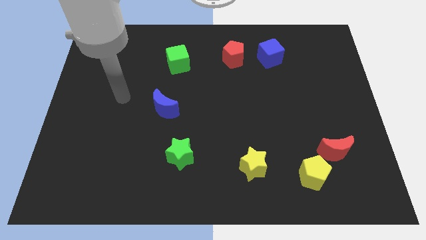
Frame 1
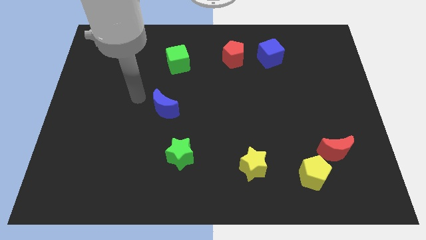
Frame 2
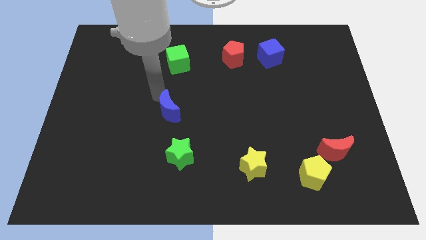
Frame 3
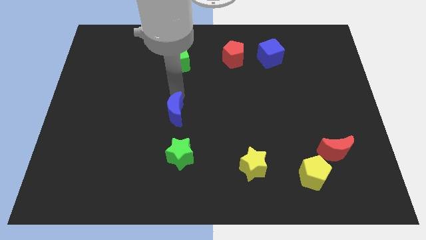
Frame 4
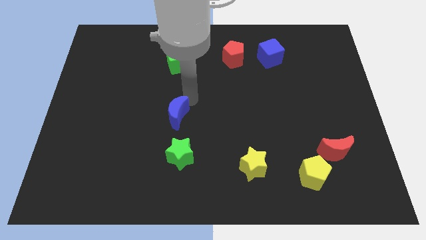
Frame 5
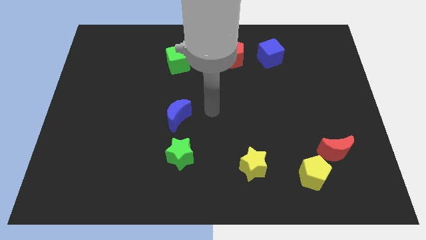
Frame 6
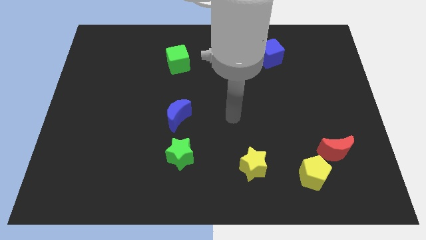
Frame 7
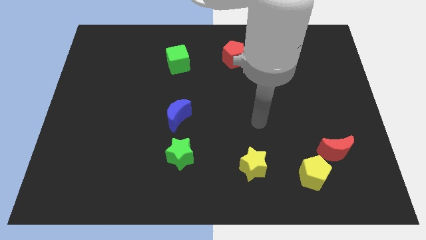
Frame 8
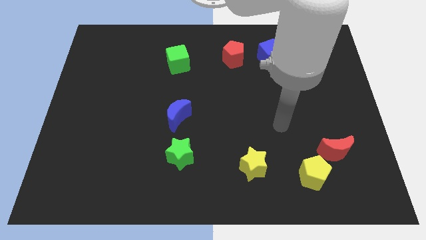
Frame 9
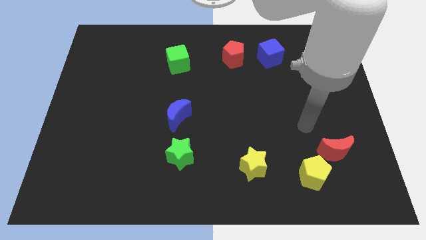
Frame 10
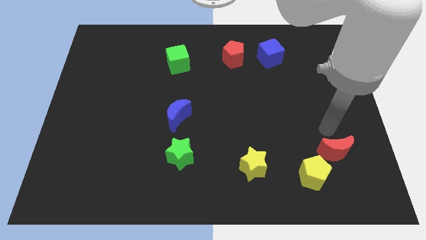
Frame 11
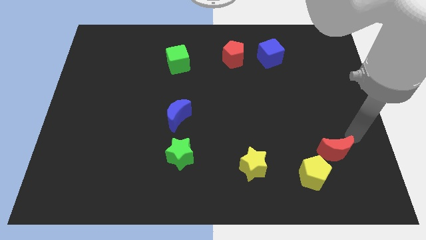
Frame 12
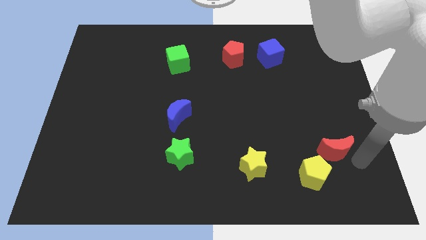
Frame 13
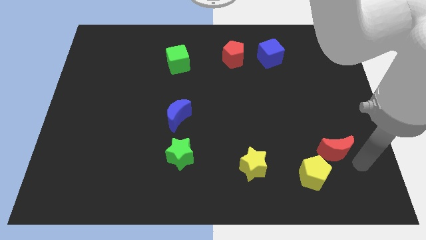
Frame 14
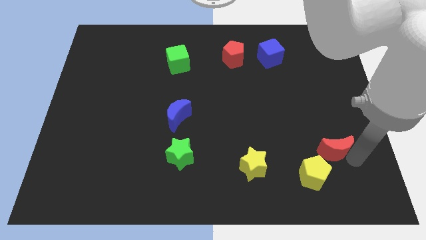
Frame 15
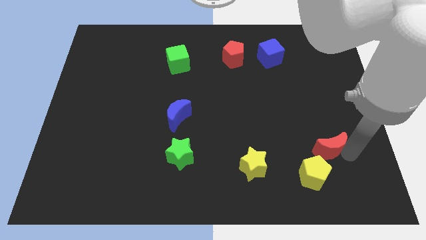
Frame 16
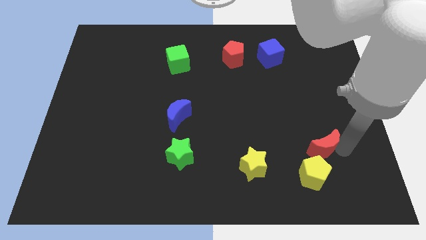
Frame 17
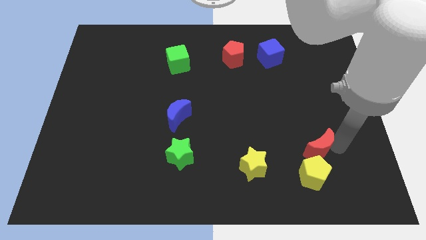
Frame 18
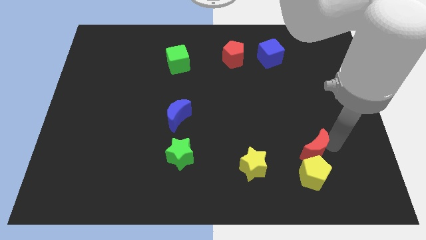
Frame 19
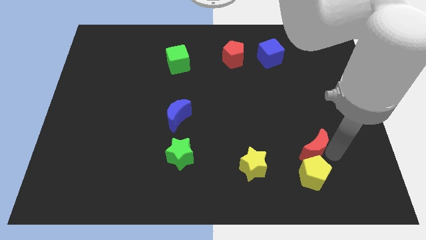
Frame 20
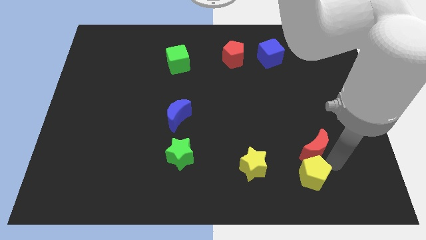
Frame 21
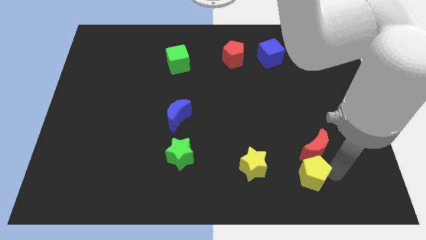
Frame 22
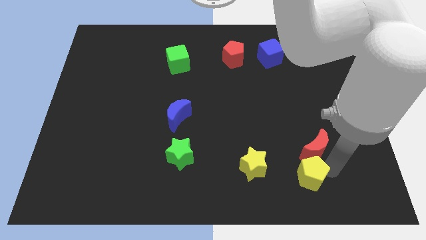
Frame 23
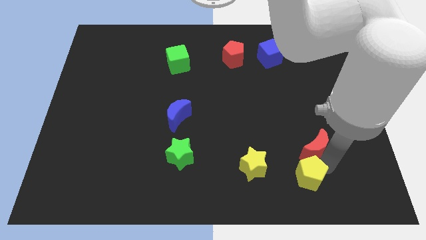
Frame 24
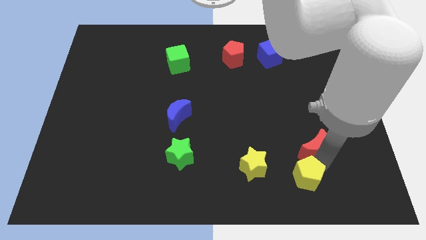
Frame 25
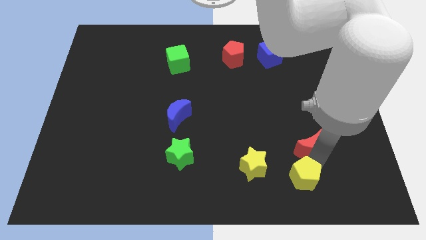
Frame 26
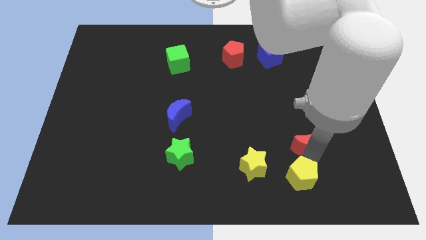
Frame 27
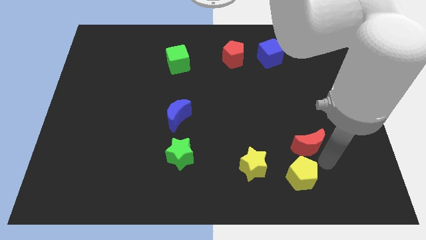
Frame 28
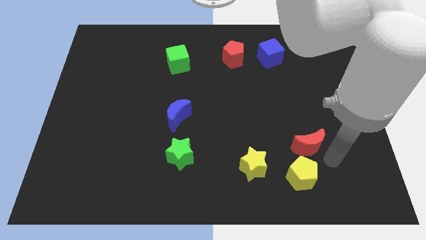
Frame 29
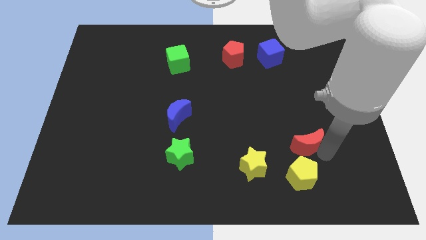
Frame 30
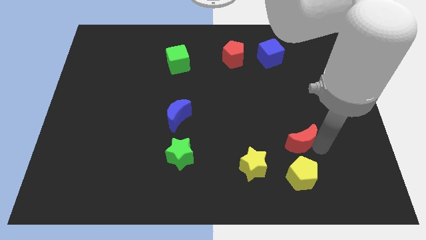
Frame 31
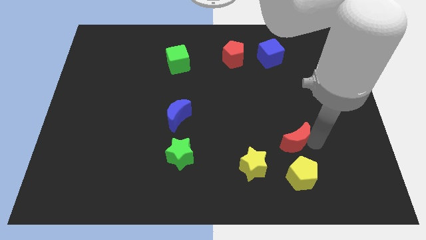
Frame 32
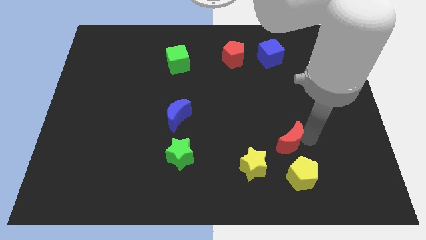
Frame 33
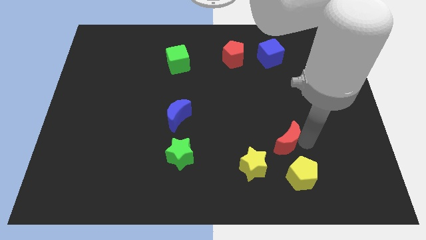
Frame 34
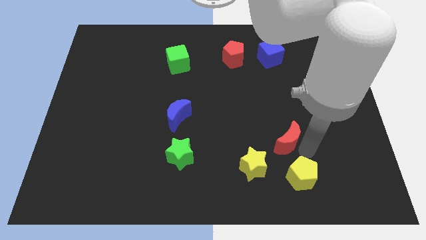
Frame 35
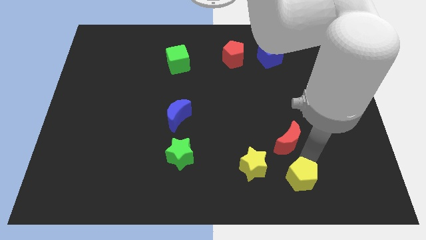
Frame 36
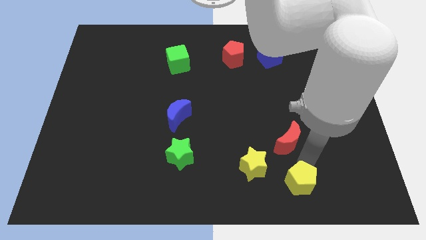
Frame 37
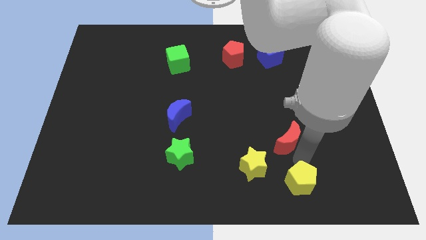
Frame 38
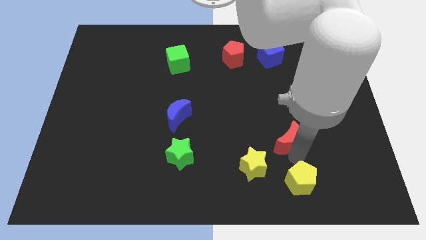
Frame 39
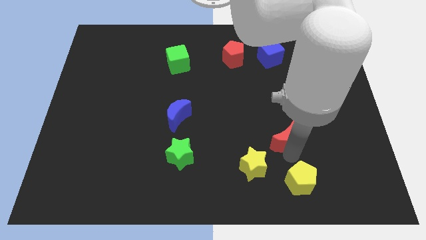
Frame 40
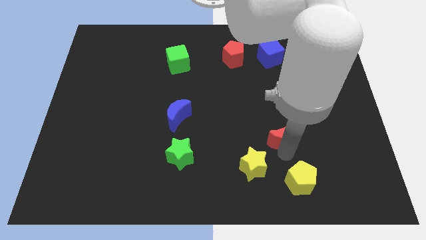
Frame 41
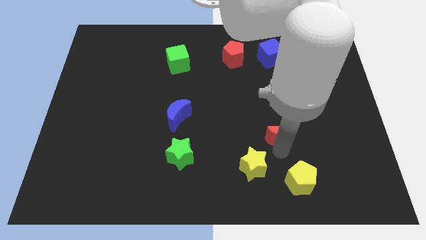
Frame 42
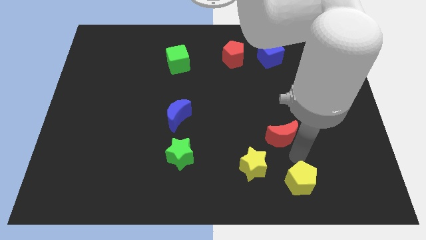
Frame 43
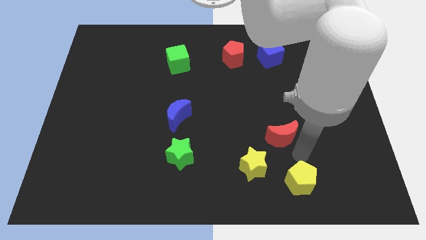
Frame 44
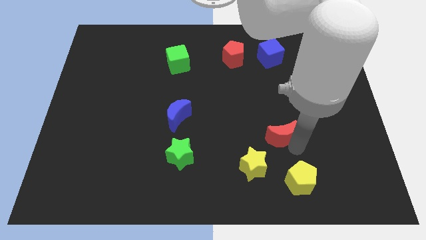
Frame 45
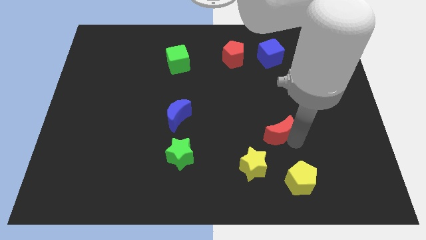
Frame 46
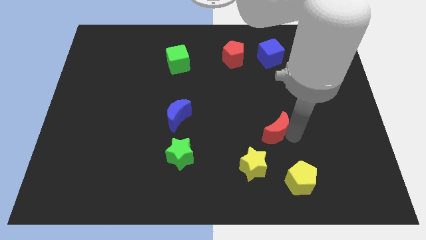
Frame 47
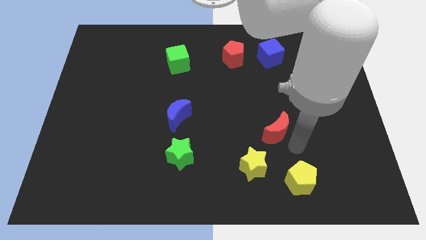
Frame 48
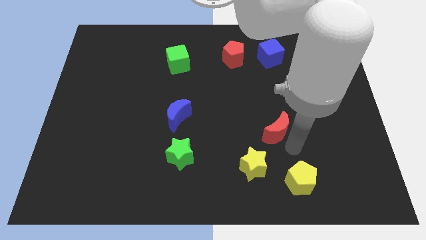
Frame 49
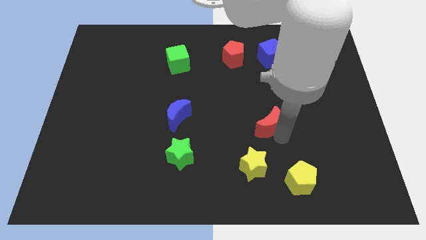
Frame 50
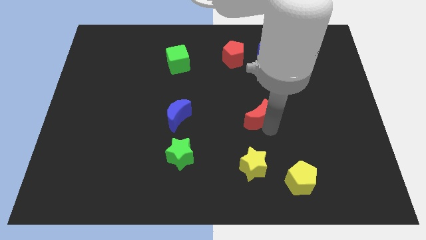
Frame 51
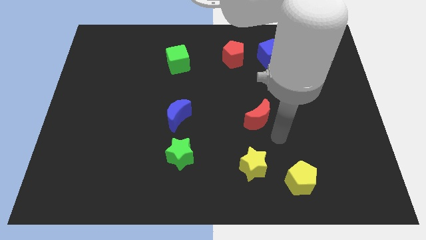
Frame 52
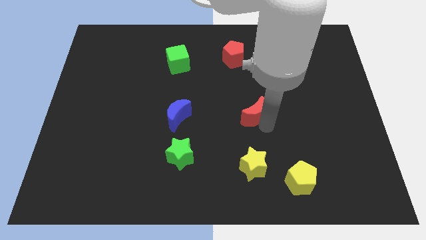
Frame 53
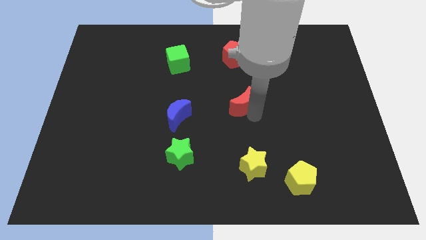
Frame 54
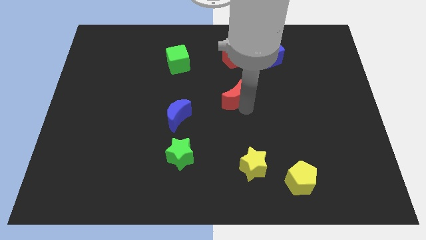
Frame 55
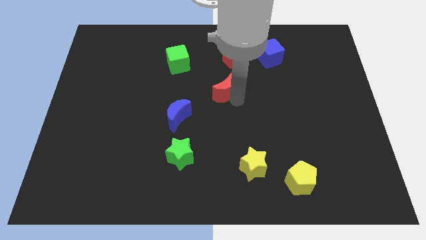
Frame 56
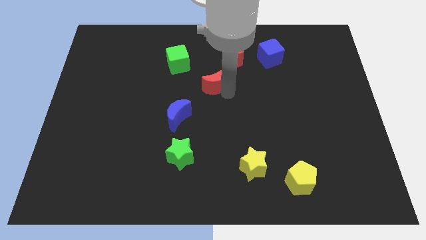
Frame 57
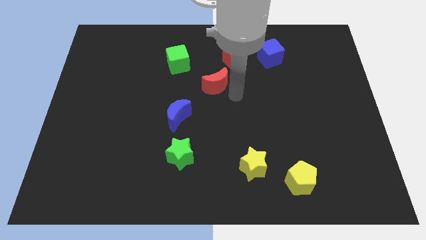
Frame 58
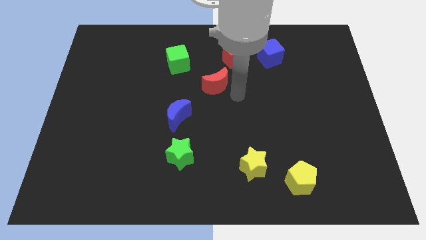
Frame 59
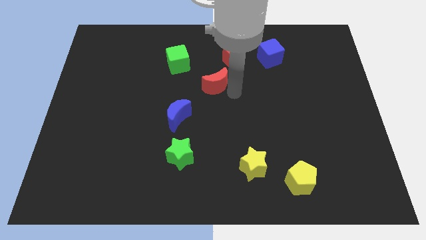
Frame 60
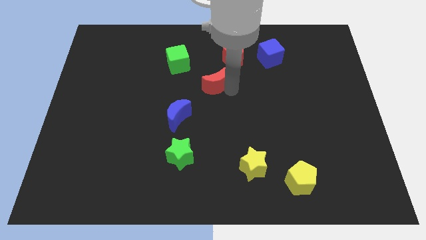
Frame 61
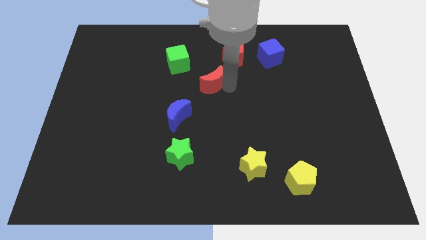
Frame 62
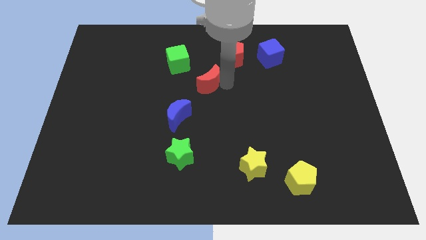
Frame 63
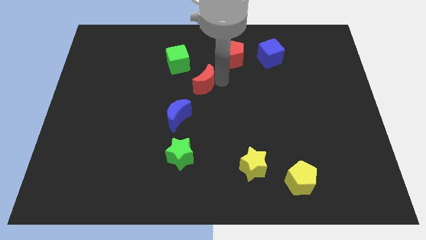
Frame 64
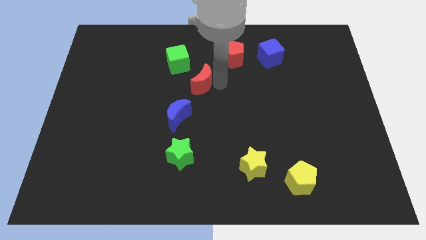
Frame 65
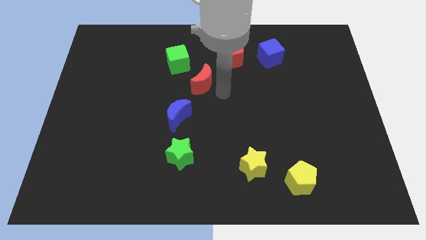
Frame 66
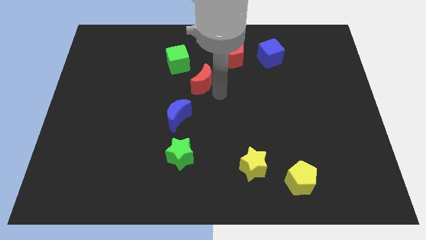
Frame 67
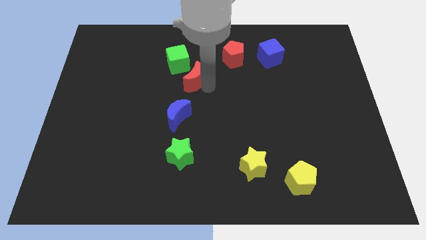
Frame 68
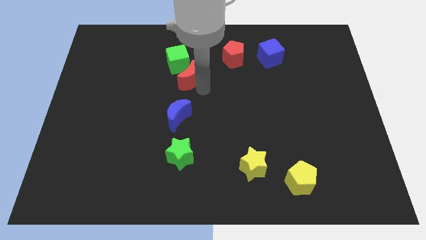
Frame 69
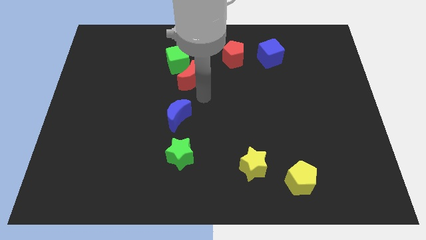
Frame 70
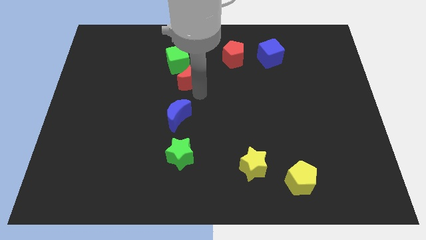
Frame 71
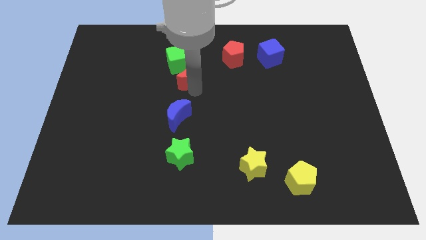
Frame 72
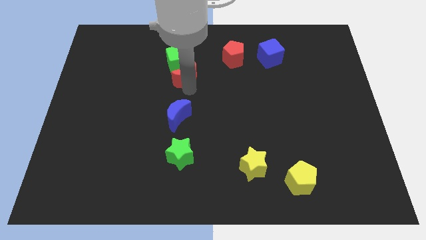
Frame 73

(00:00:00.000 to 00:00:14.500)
push the red moon close to the green cube

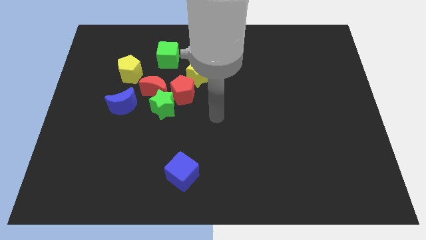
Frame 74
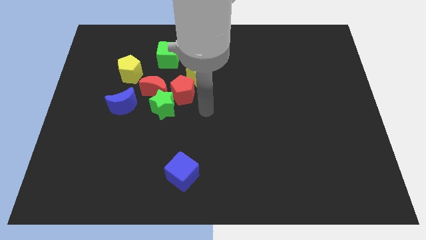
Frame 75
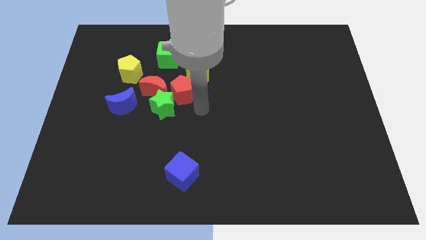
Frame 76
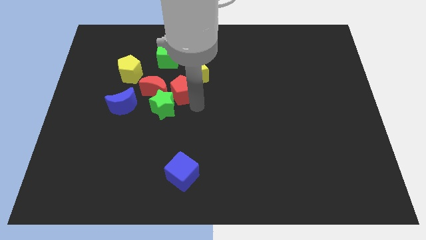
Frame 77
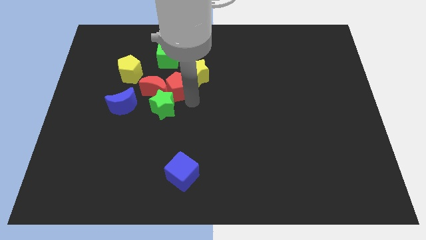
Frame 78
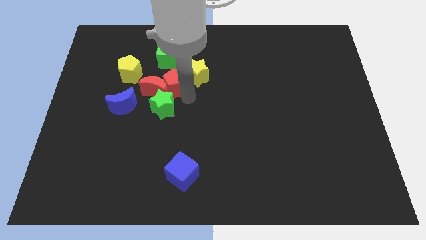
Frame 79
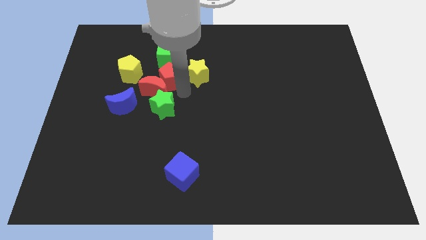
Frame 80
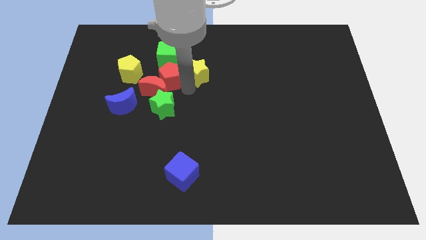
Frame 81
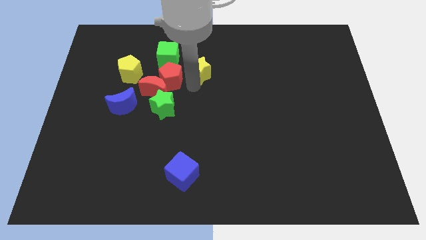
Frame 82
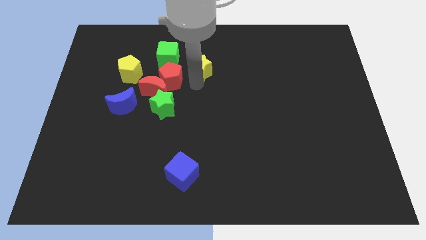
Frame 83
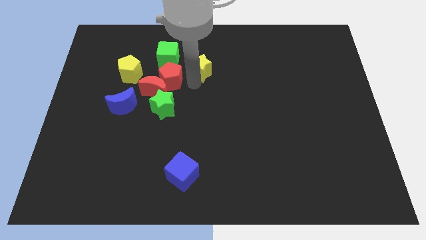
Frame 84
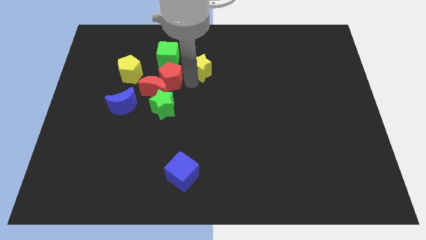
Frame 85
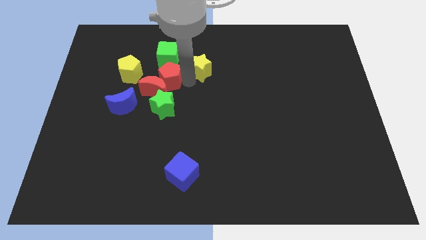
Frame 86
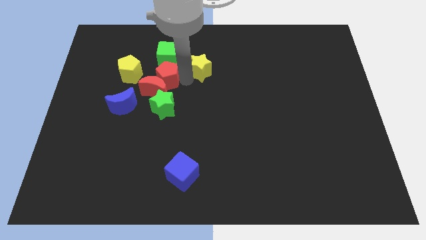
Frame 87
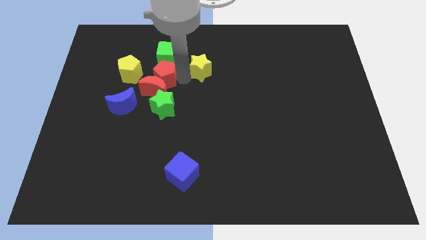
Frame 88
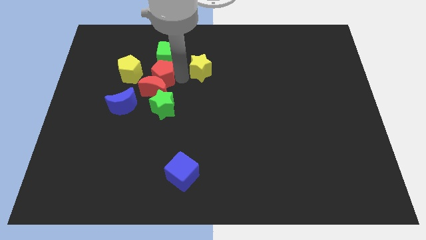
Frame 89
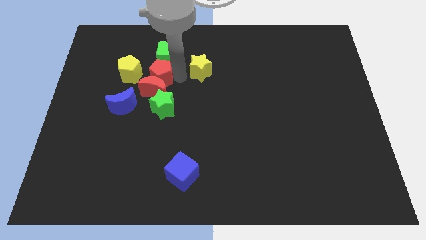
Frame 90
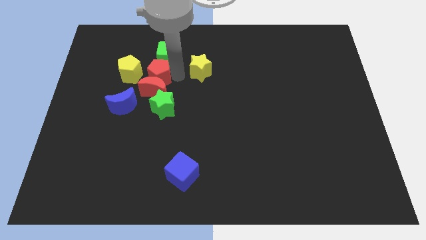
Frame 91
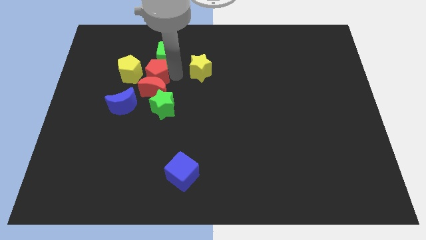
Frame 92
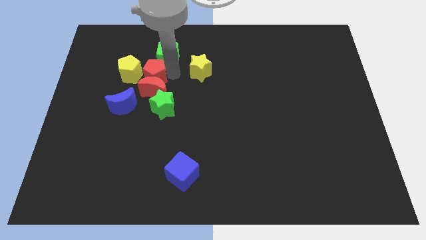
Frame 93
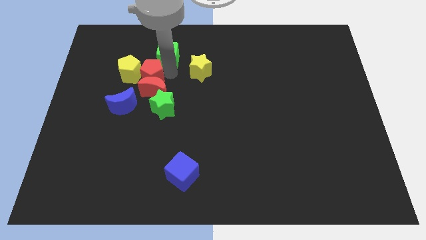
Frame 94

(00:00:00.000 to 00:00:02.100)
put the red pentagon next to the yellow pentagon
